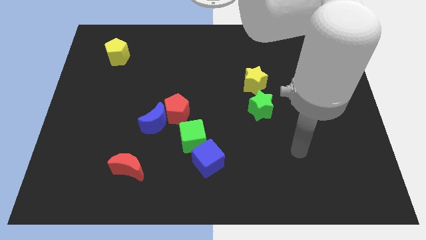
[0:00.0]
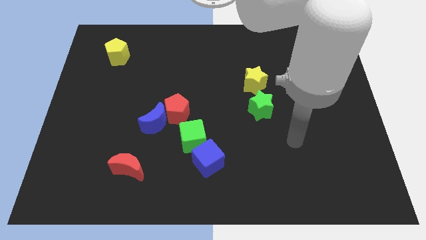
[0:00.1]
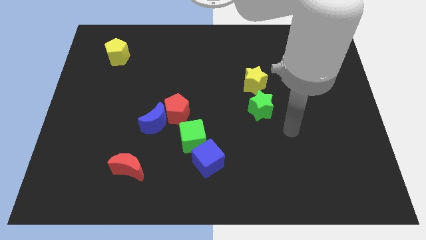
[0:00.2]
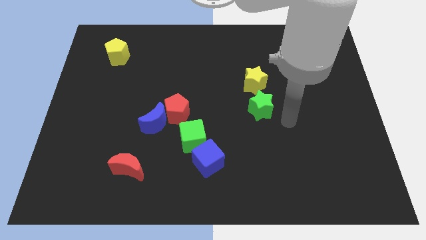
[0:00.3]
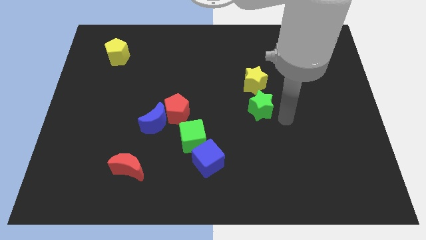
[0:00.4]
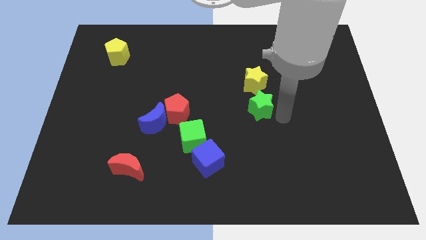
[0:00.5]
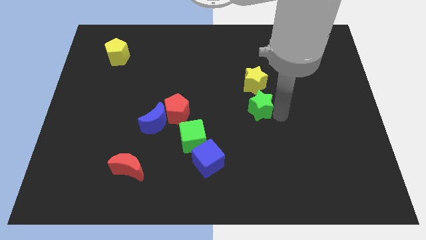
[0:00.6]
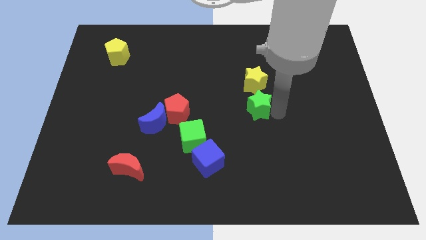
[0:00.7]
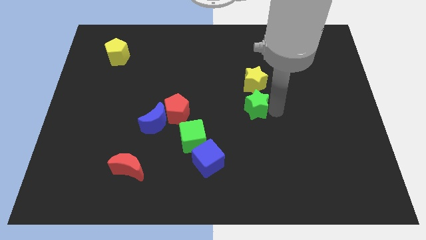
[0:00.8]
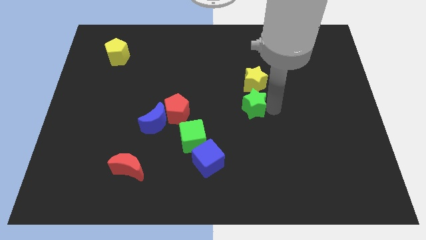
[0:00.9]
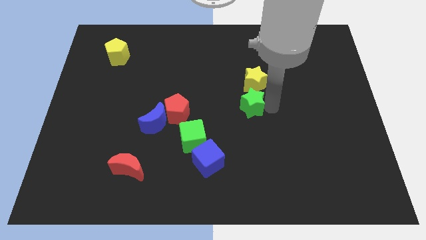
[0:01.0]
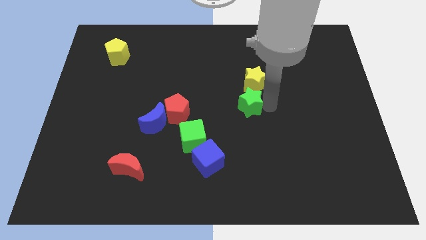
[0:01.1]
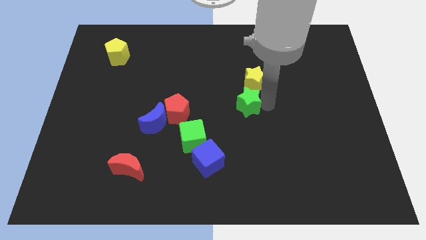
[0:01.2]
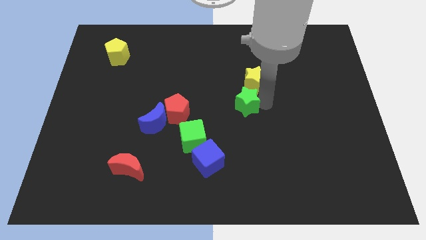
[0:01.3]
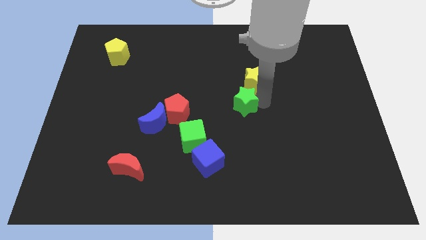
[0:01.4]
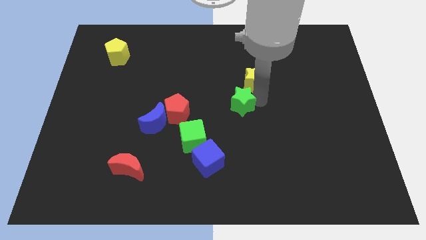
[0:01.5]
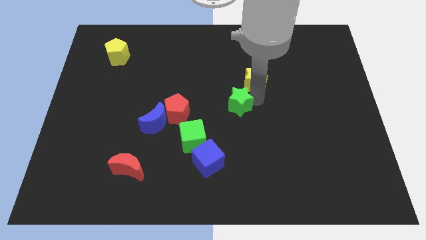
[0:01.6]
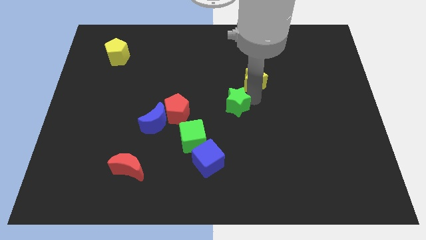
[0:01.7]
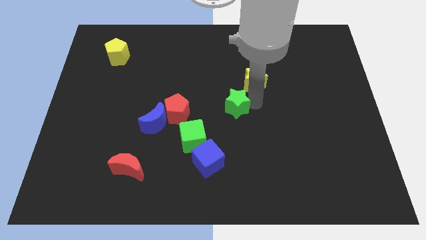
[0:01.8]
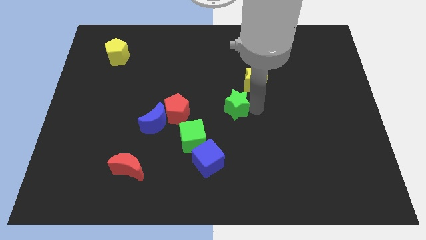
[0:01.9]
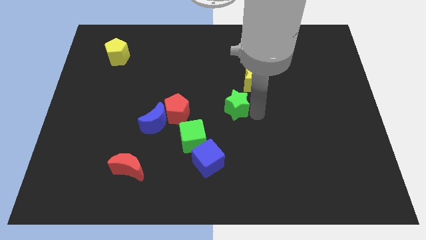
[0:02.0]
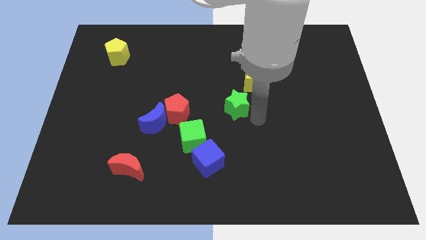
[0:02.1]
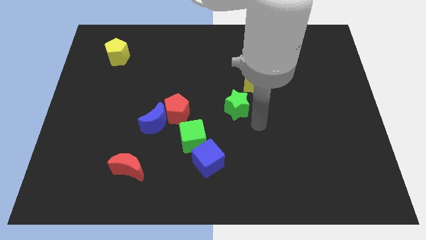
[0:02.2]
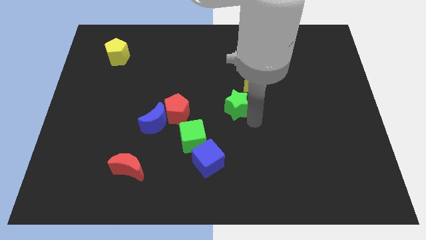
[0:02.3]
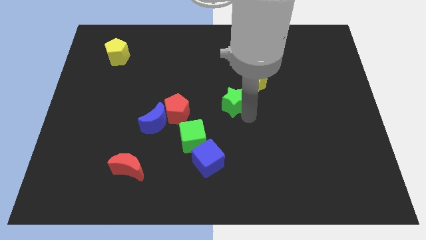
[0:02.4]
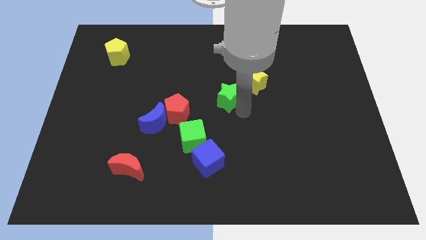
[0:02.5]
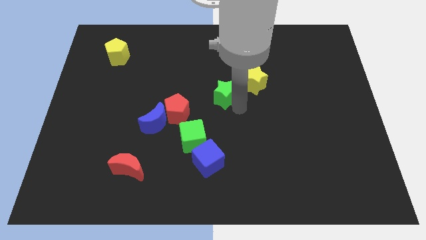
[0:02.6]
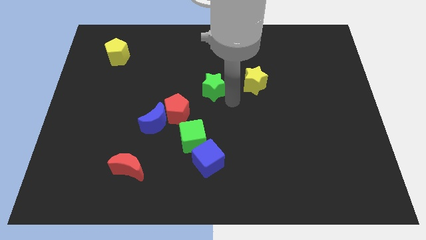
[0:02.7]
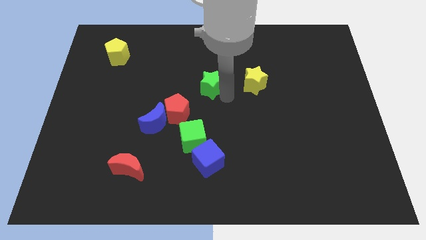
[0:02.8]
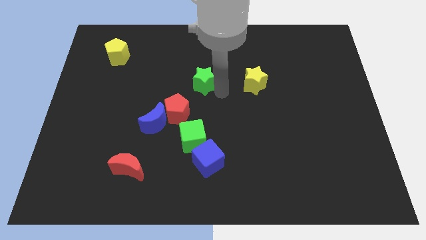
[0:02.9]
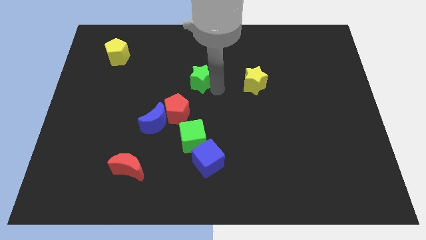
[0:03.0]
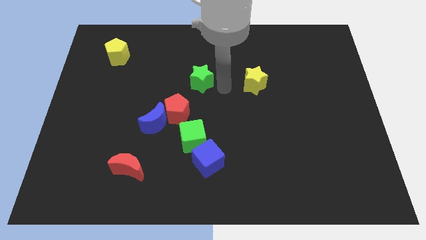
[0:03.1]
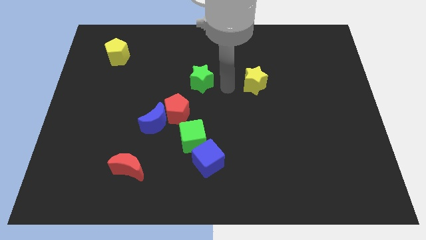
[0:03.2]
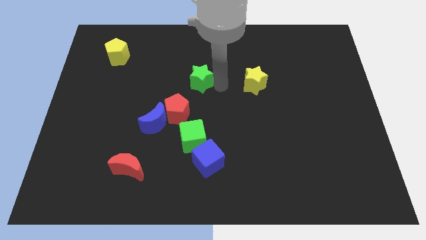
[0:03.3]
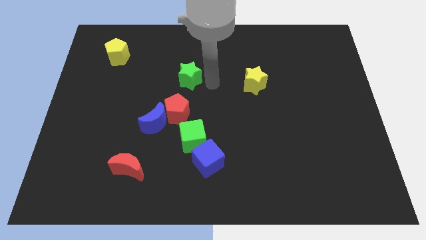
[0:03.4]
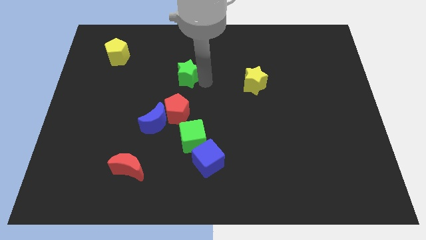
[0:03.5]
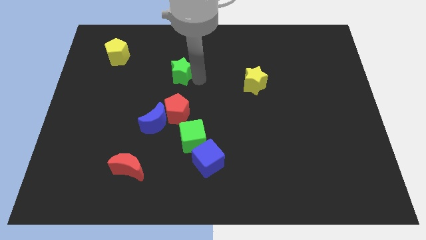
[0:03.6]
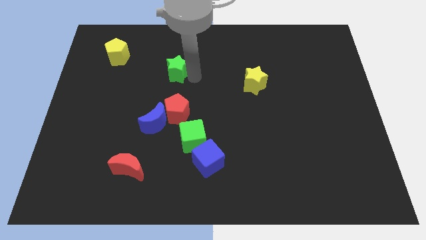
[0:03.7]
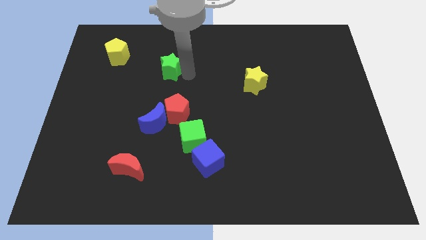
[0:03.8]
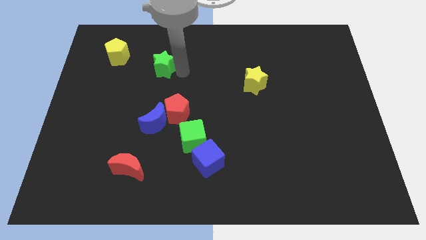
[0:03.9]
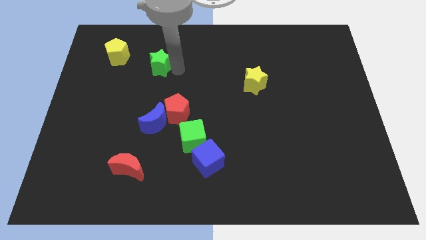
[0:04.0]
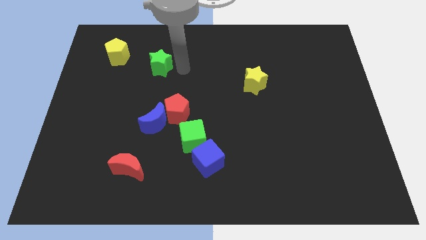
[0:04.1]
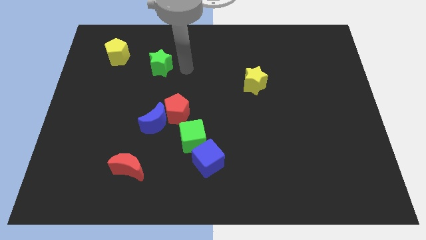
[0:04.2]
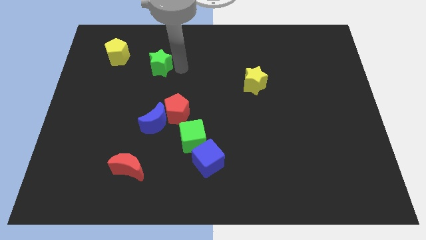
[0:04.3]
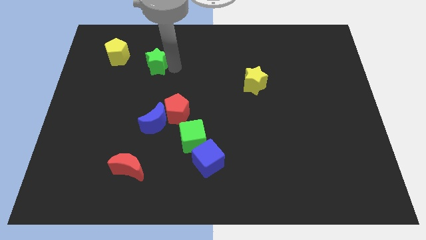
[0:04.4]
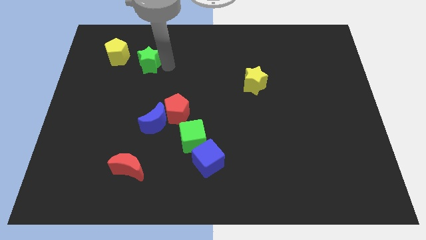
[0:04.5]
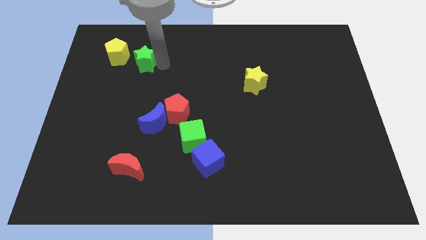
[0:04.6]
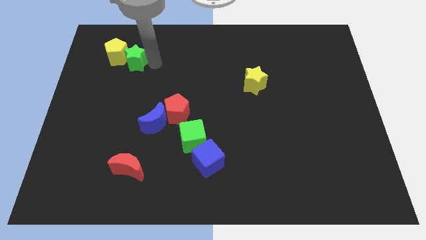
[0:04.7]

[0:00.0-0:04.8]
move the green star towards the yellow pentagon

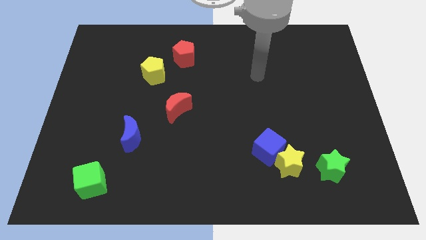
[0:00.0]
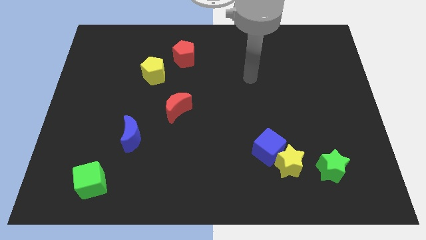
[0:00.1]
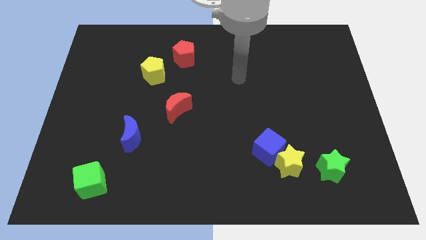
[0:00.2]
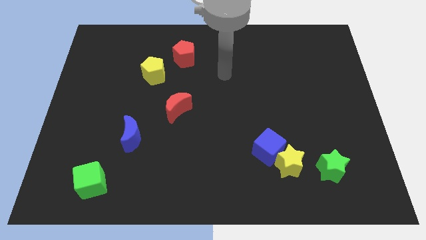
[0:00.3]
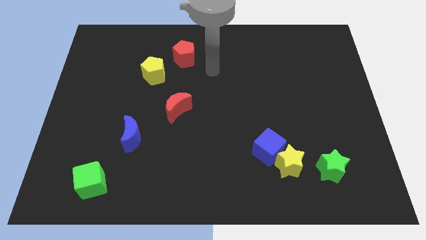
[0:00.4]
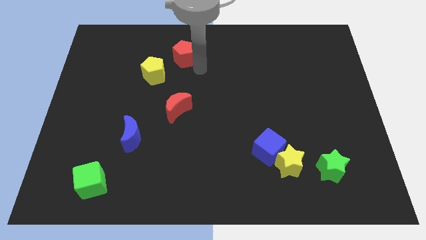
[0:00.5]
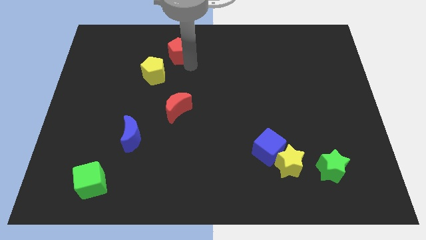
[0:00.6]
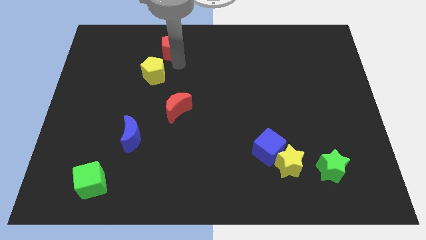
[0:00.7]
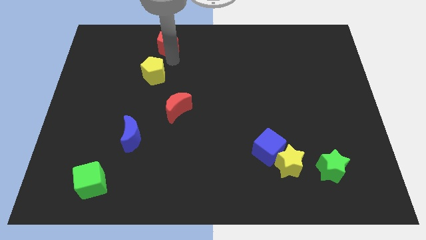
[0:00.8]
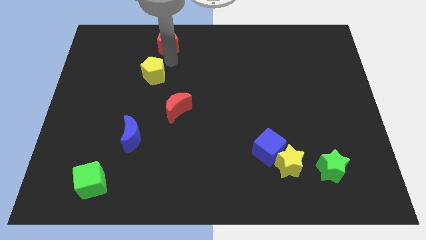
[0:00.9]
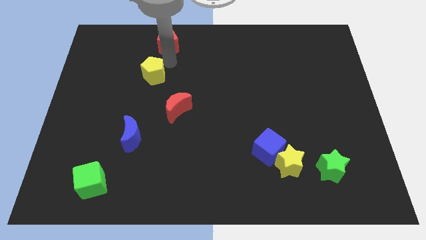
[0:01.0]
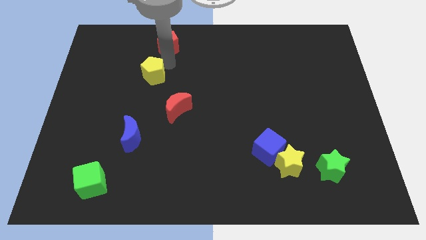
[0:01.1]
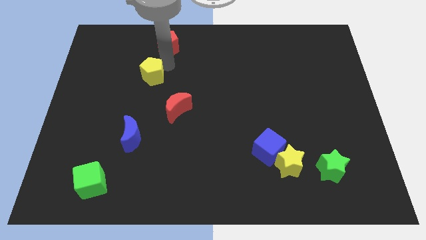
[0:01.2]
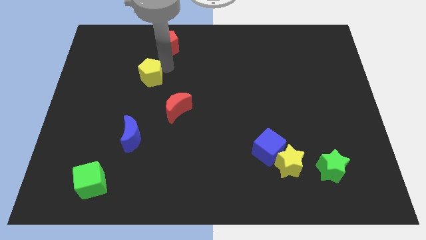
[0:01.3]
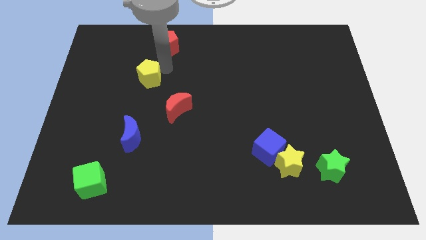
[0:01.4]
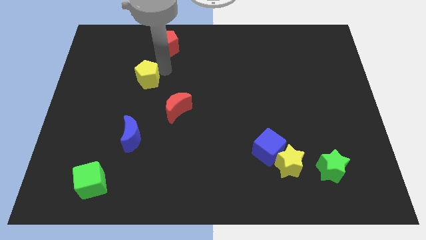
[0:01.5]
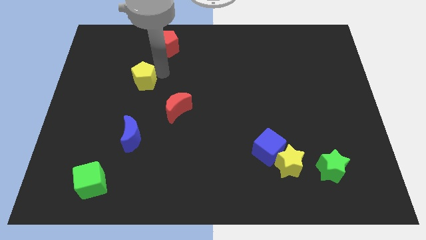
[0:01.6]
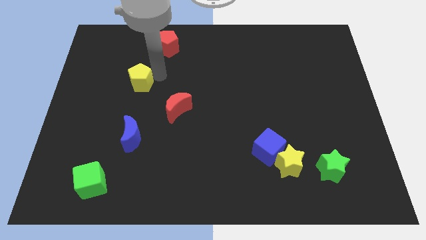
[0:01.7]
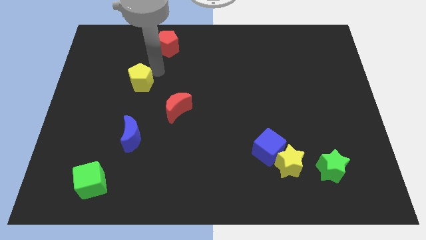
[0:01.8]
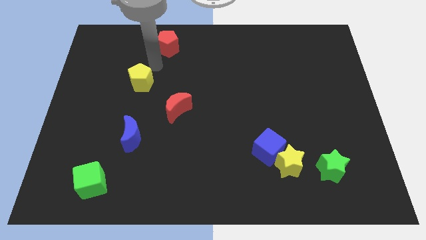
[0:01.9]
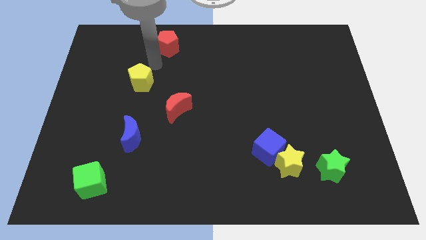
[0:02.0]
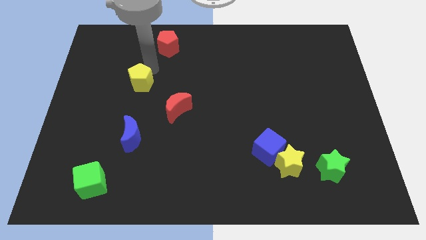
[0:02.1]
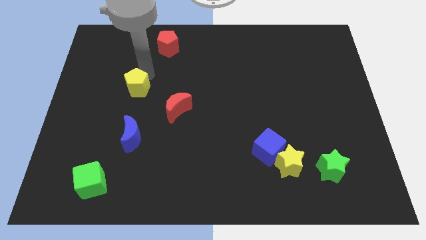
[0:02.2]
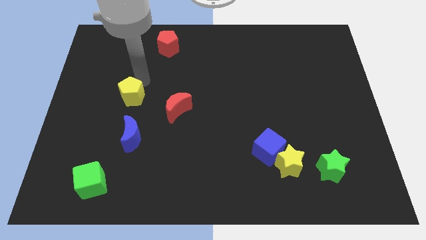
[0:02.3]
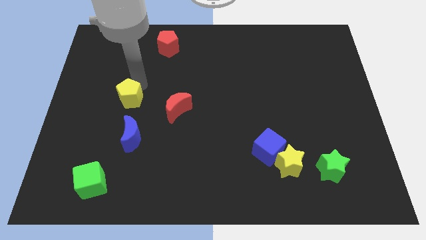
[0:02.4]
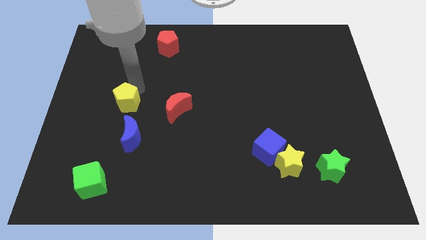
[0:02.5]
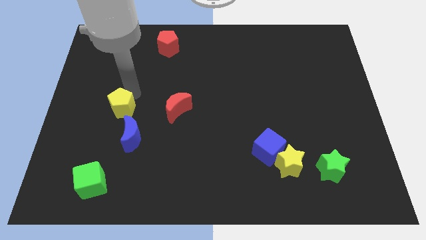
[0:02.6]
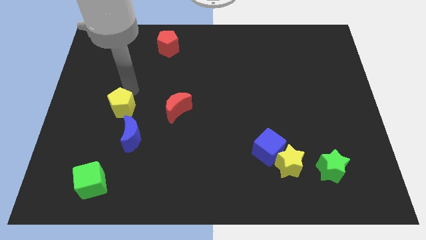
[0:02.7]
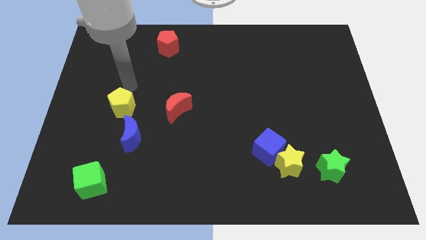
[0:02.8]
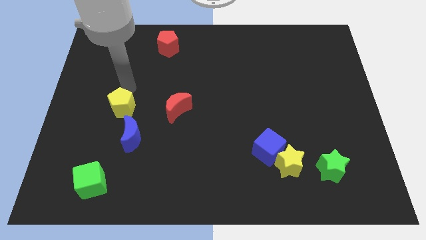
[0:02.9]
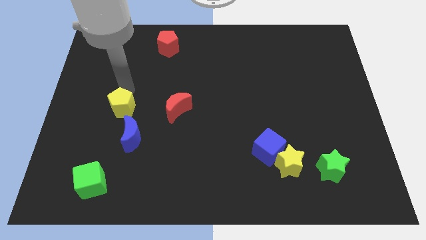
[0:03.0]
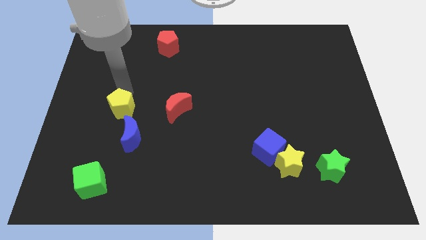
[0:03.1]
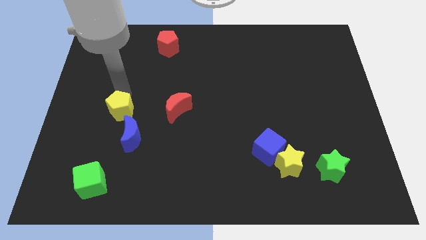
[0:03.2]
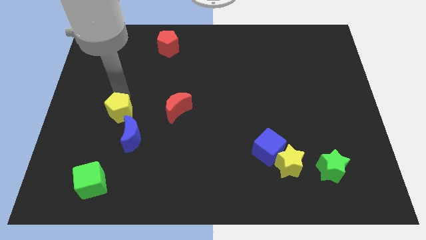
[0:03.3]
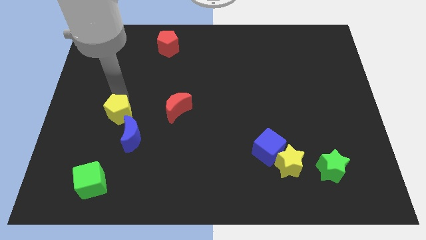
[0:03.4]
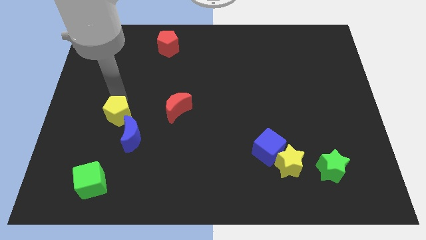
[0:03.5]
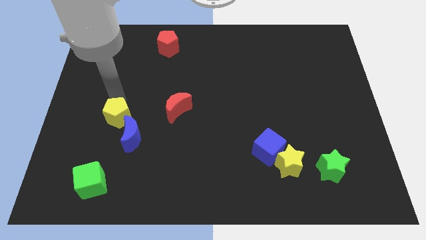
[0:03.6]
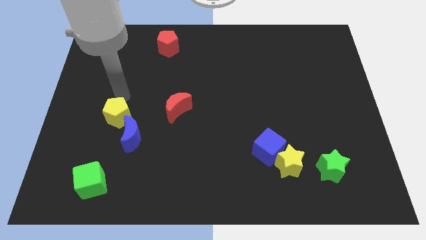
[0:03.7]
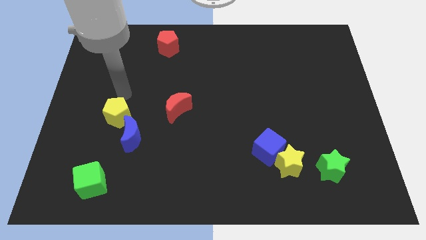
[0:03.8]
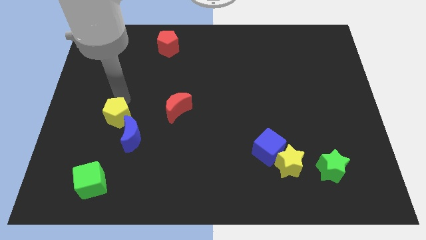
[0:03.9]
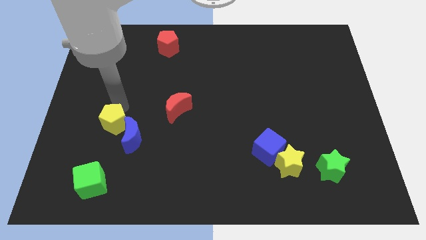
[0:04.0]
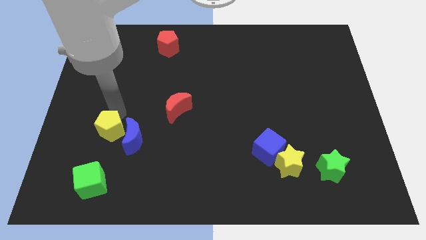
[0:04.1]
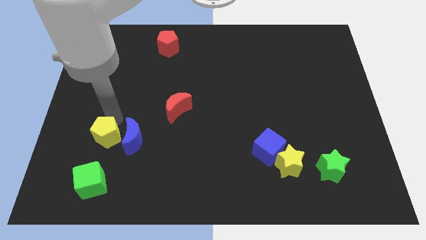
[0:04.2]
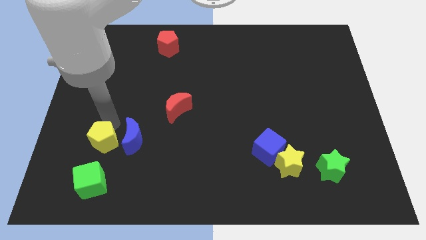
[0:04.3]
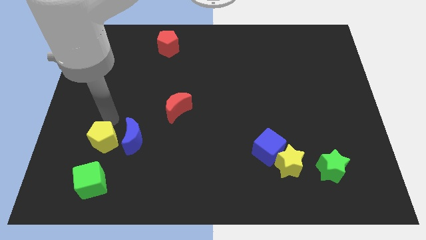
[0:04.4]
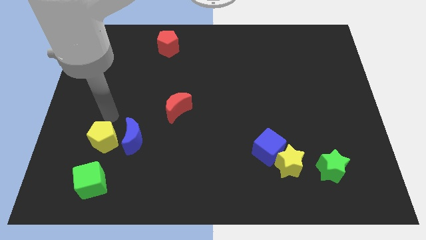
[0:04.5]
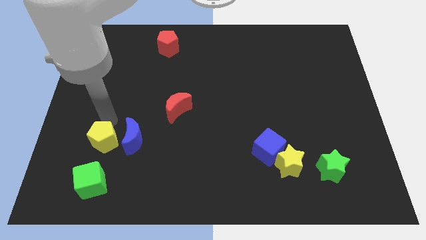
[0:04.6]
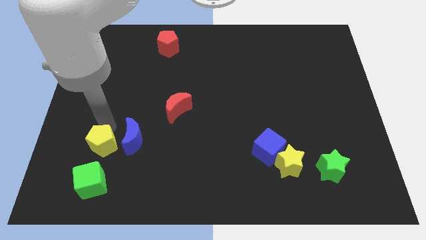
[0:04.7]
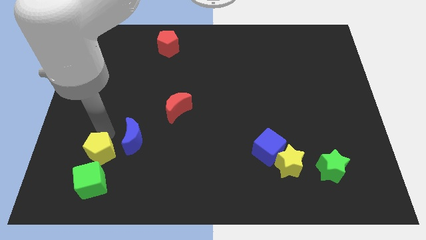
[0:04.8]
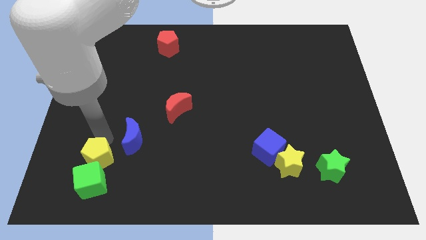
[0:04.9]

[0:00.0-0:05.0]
put the yellow pentagon towards the green cube
